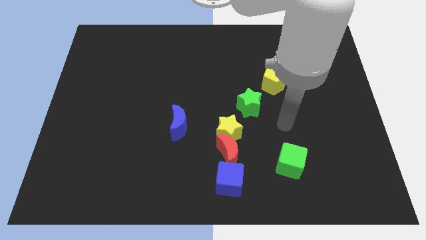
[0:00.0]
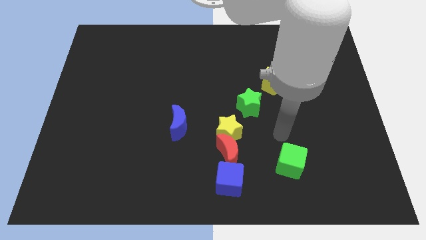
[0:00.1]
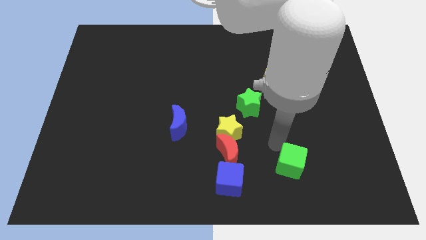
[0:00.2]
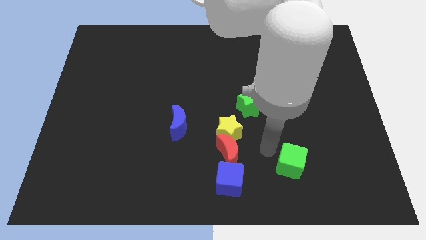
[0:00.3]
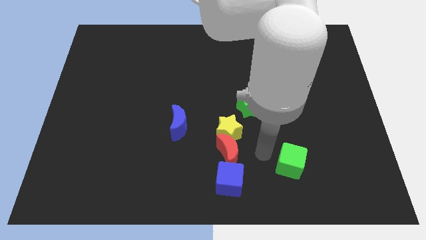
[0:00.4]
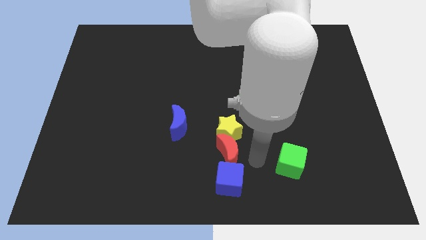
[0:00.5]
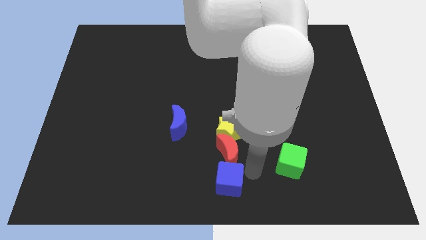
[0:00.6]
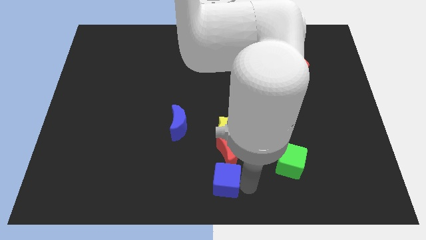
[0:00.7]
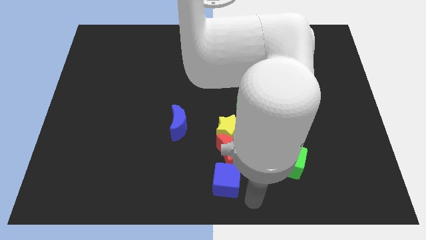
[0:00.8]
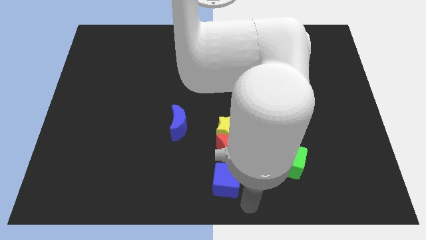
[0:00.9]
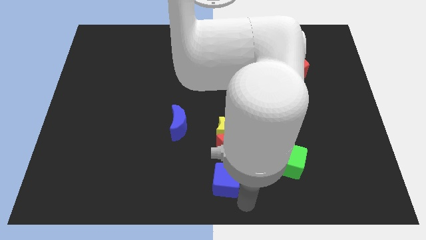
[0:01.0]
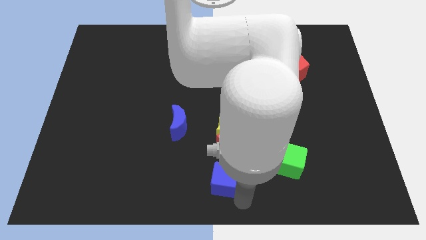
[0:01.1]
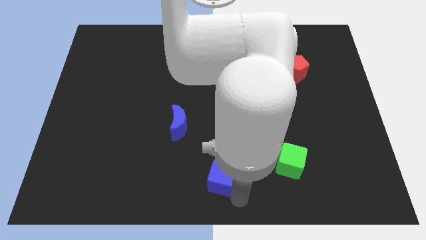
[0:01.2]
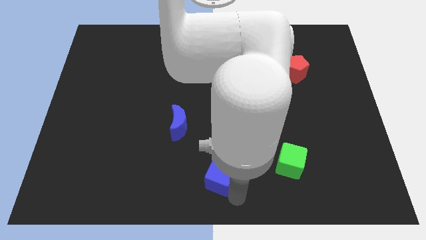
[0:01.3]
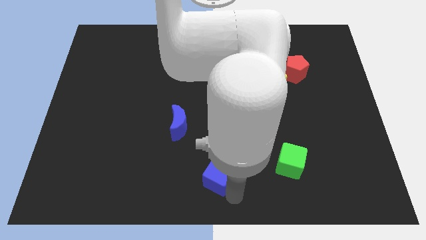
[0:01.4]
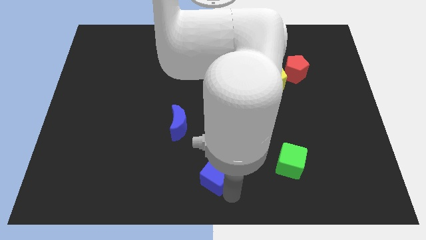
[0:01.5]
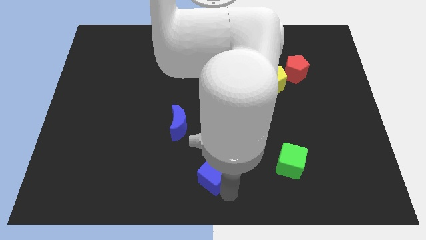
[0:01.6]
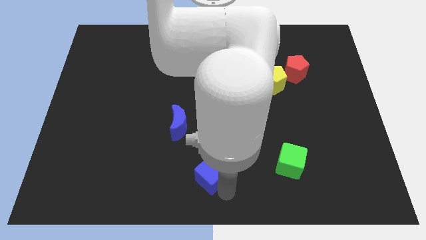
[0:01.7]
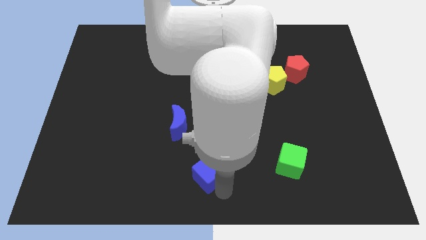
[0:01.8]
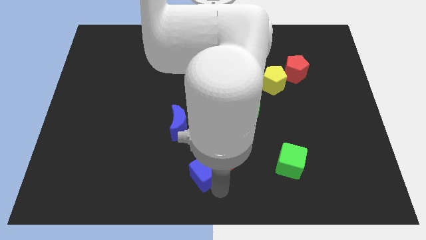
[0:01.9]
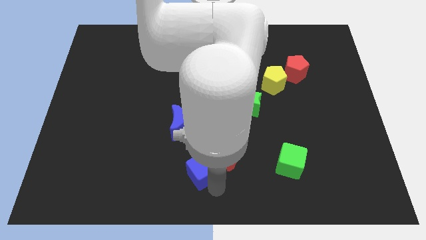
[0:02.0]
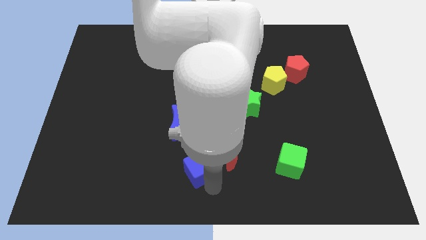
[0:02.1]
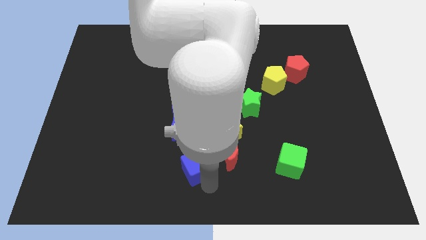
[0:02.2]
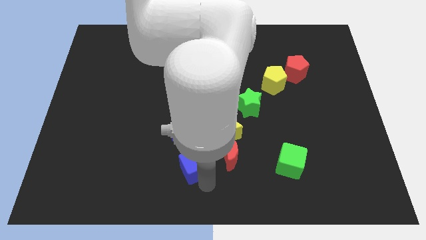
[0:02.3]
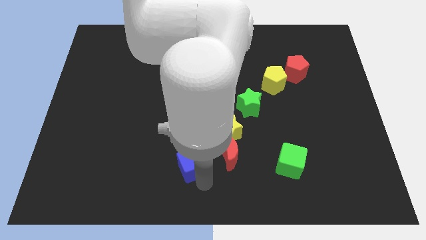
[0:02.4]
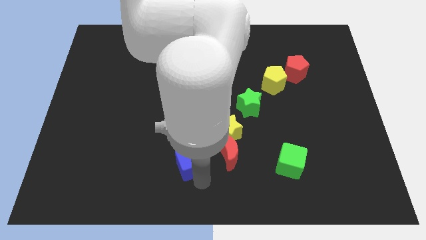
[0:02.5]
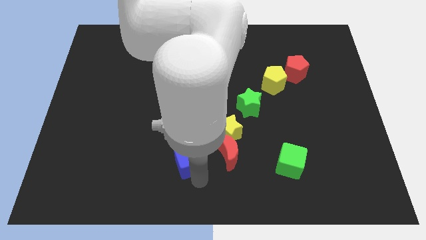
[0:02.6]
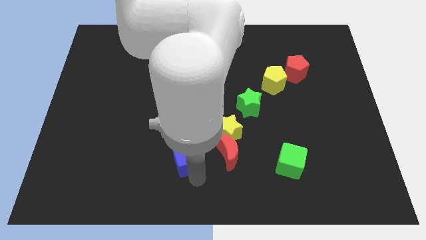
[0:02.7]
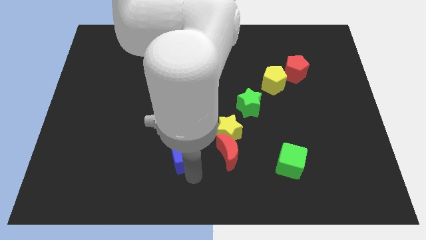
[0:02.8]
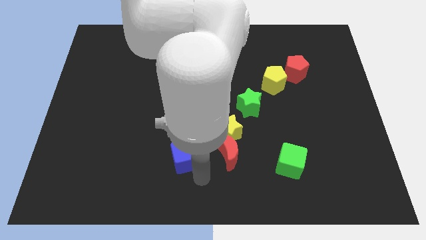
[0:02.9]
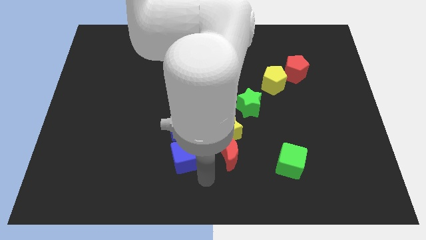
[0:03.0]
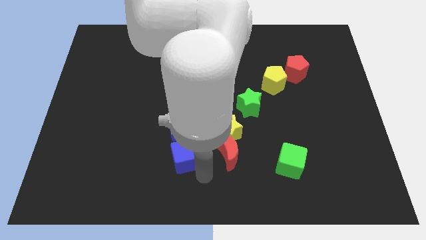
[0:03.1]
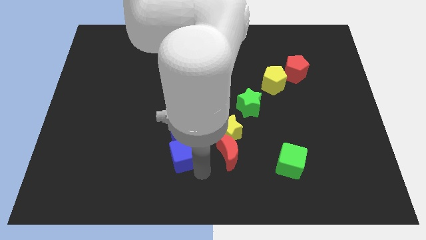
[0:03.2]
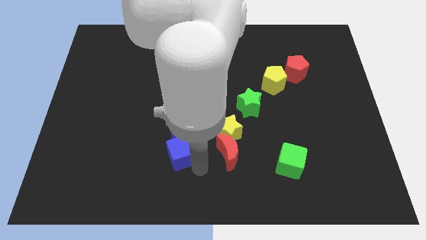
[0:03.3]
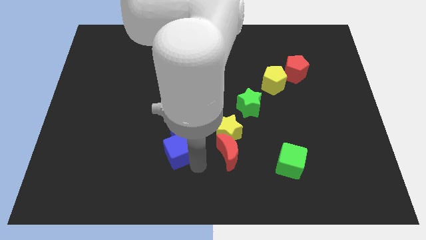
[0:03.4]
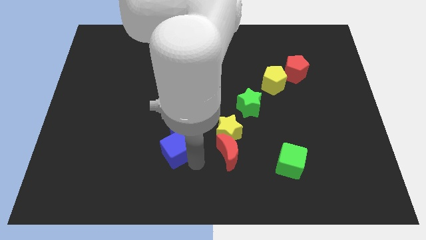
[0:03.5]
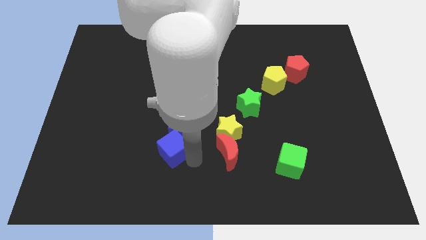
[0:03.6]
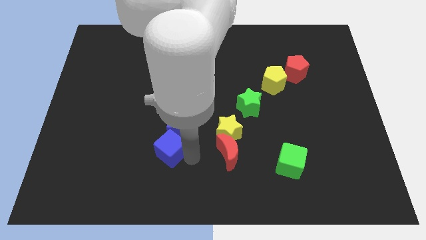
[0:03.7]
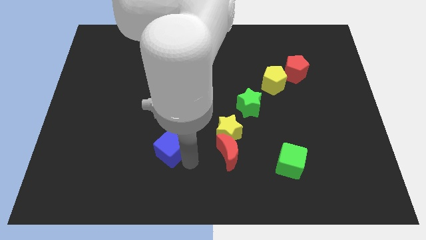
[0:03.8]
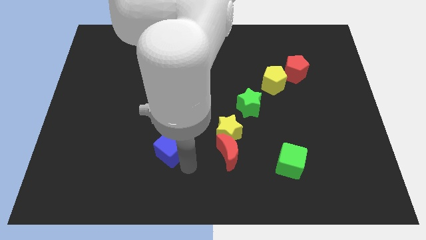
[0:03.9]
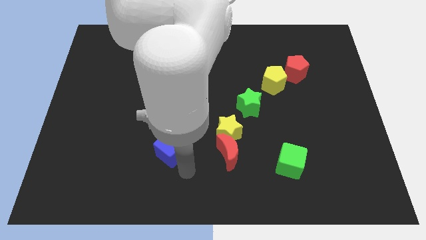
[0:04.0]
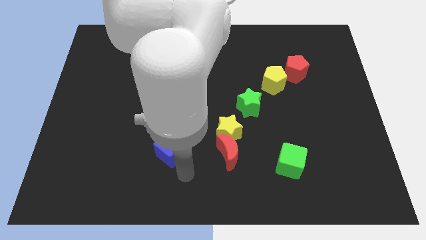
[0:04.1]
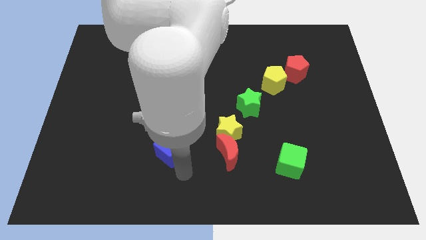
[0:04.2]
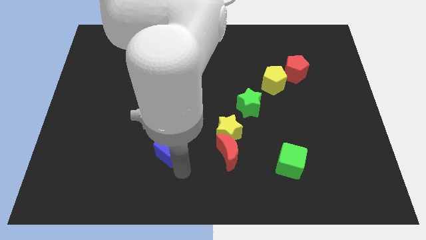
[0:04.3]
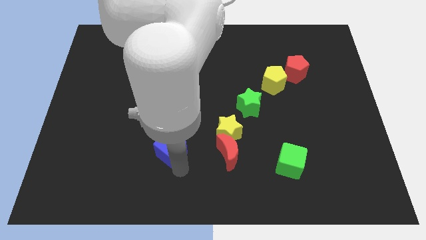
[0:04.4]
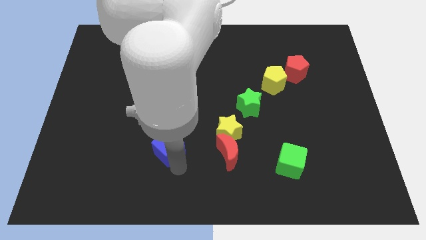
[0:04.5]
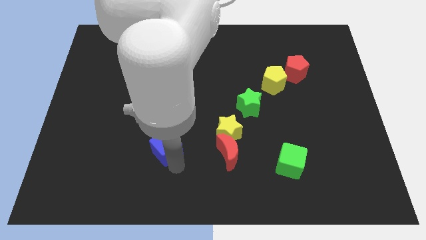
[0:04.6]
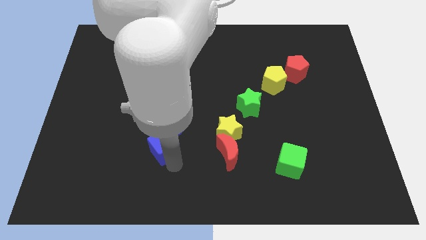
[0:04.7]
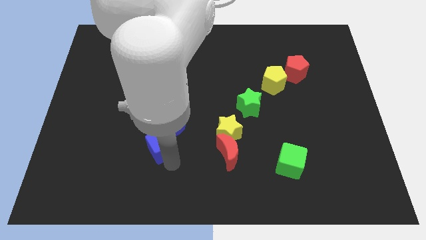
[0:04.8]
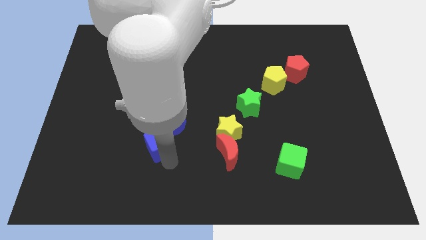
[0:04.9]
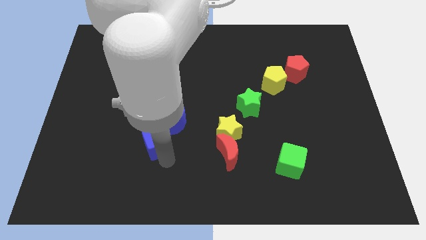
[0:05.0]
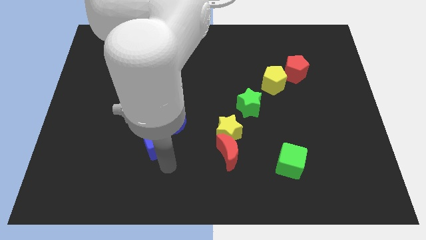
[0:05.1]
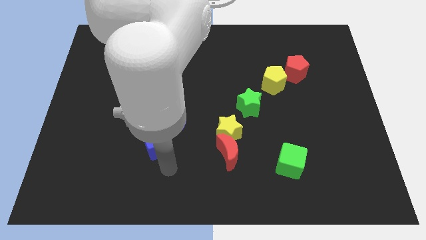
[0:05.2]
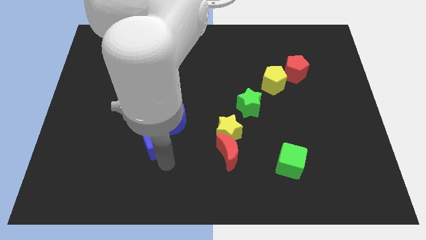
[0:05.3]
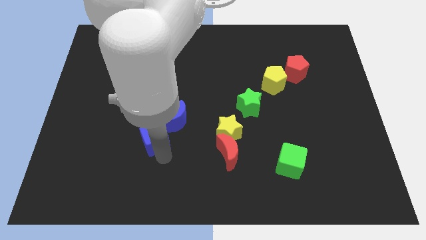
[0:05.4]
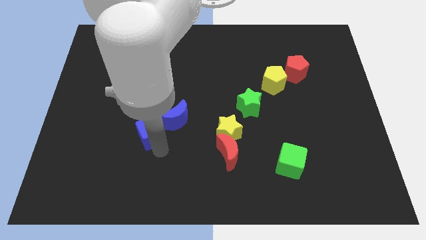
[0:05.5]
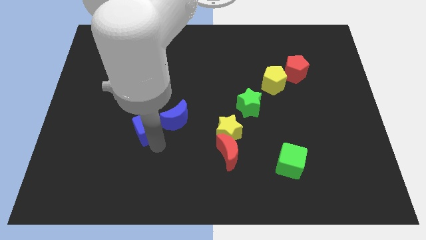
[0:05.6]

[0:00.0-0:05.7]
slide the blue cube up and to the left diagonally

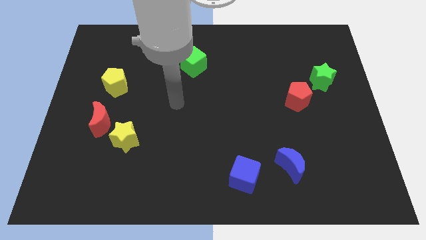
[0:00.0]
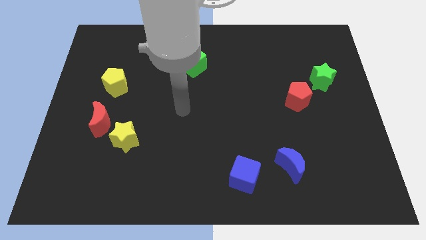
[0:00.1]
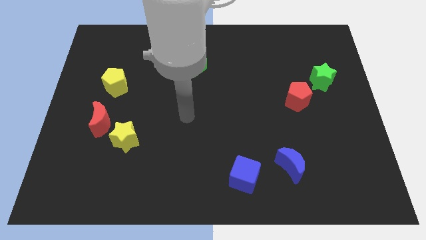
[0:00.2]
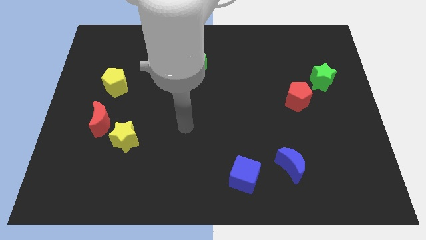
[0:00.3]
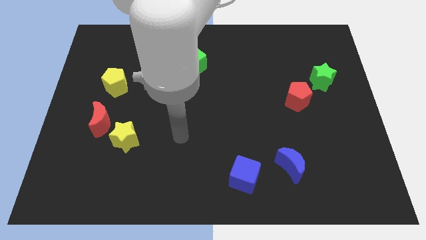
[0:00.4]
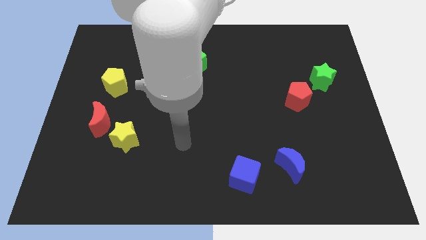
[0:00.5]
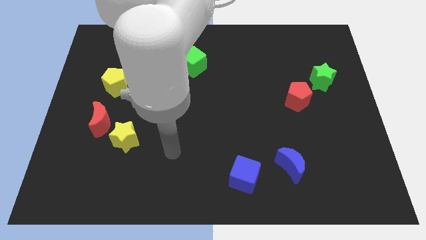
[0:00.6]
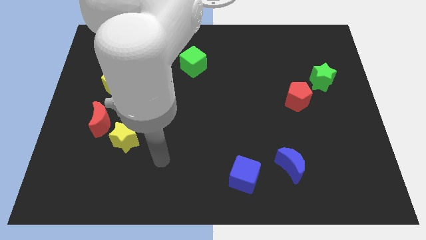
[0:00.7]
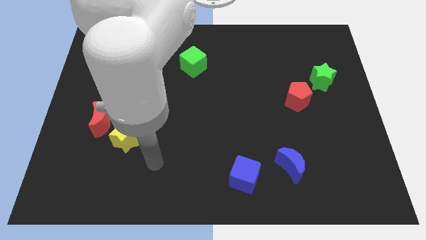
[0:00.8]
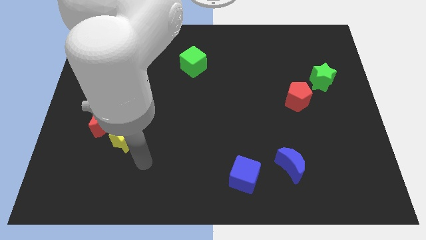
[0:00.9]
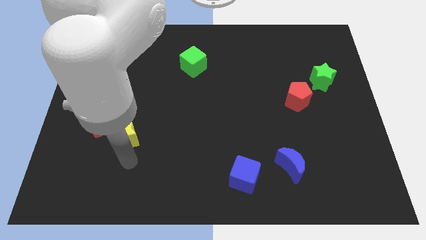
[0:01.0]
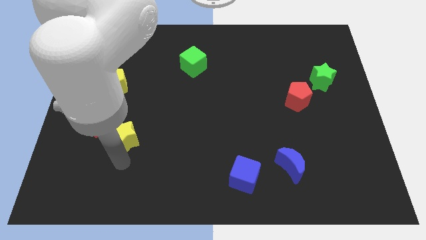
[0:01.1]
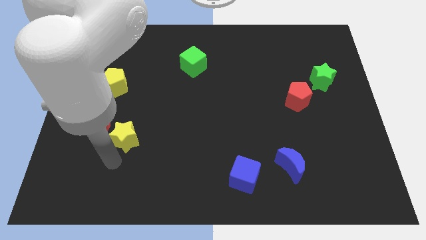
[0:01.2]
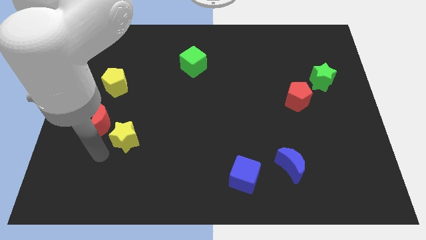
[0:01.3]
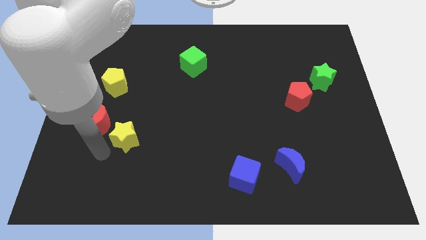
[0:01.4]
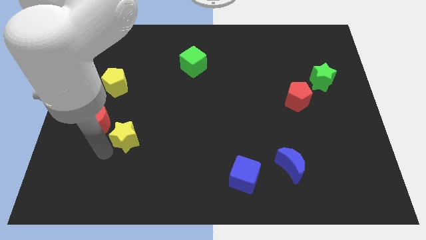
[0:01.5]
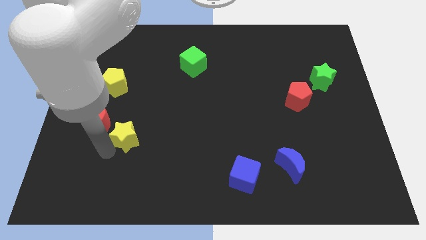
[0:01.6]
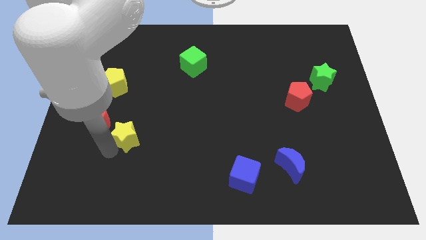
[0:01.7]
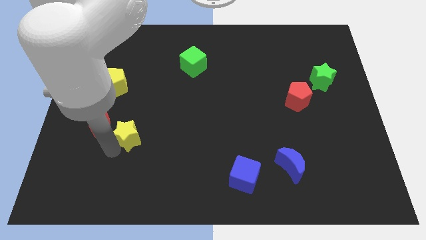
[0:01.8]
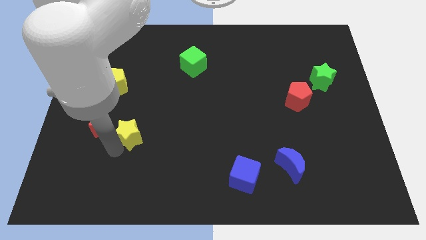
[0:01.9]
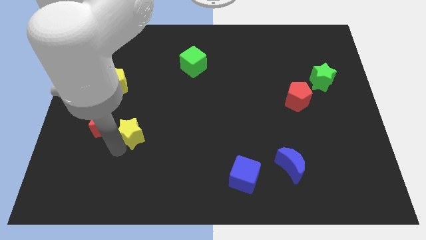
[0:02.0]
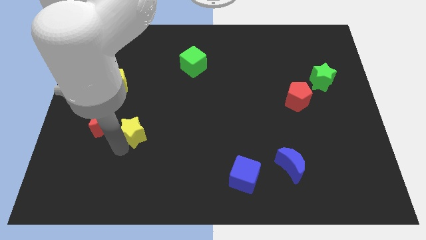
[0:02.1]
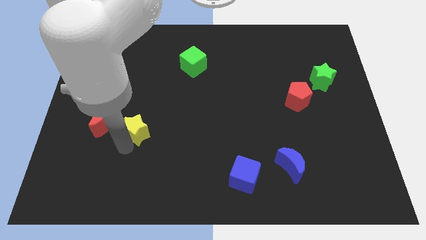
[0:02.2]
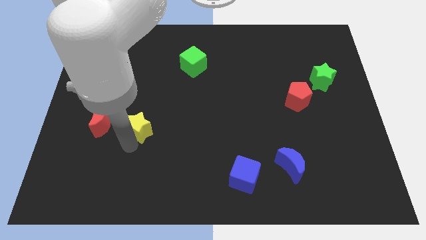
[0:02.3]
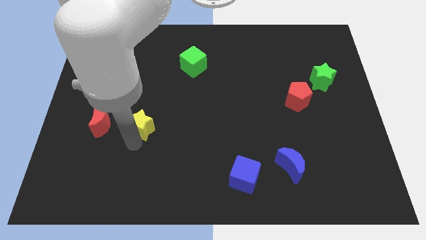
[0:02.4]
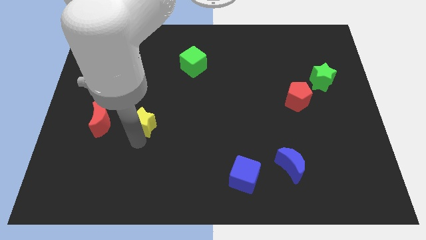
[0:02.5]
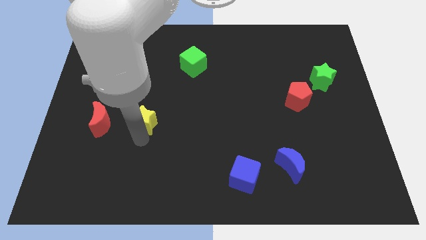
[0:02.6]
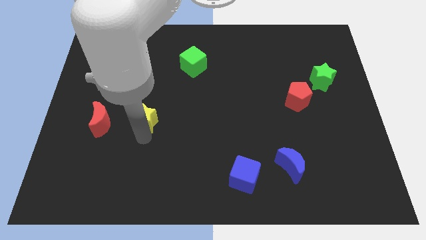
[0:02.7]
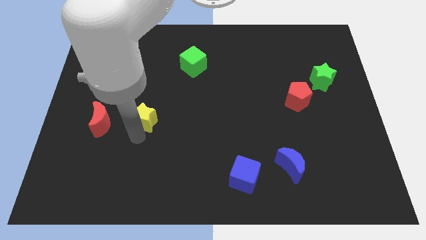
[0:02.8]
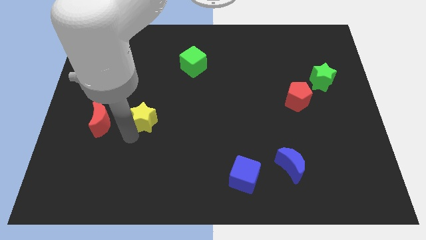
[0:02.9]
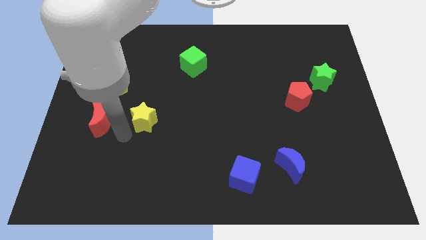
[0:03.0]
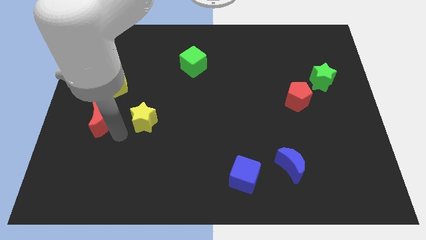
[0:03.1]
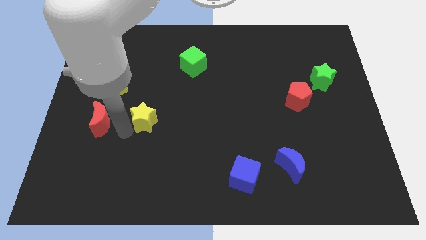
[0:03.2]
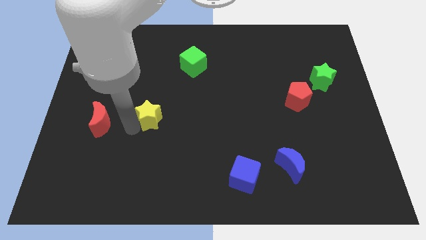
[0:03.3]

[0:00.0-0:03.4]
push the yellow star a bit diagonally up and right
